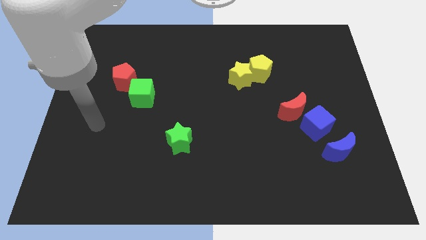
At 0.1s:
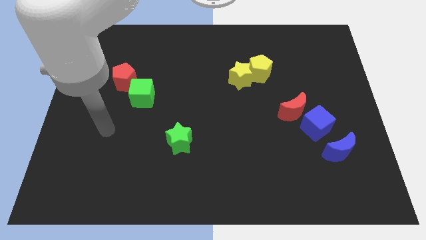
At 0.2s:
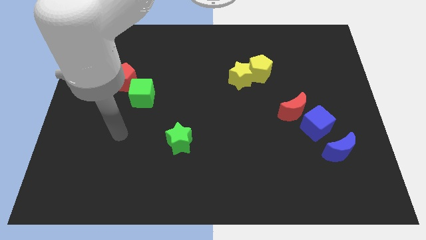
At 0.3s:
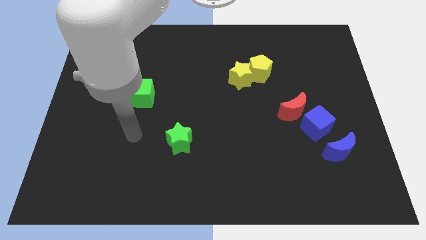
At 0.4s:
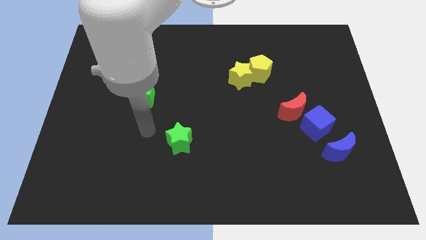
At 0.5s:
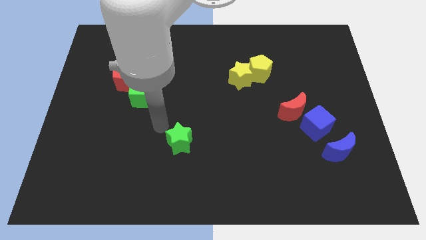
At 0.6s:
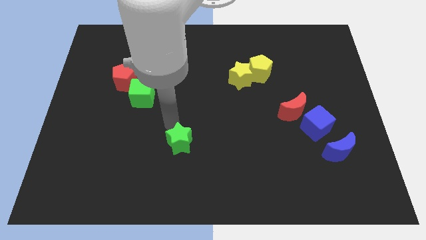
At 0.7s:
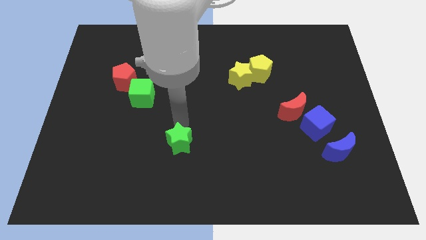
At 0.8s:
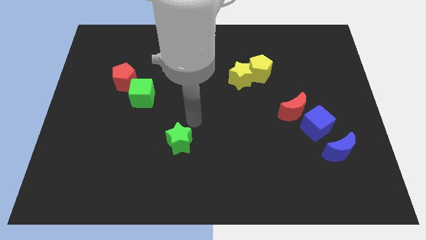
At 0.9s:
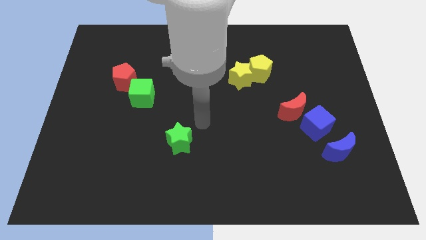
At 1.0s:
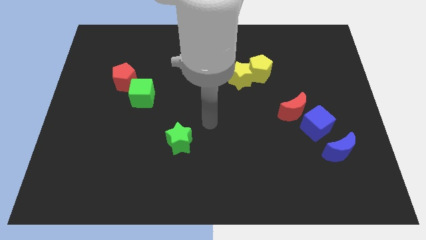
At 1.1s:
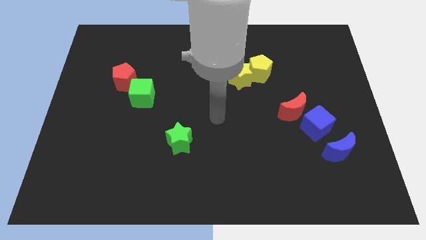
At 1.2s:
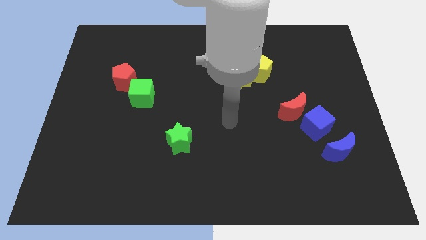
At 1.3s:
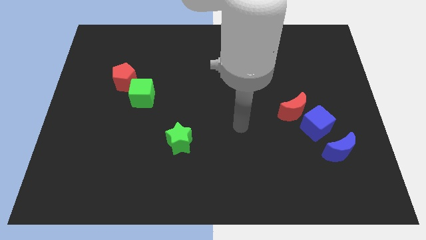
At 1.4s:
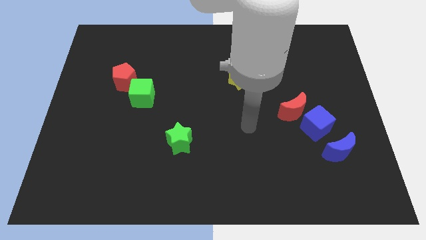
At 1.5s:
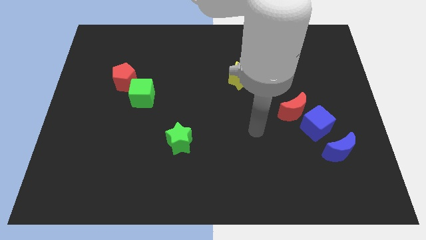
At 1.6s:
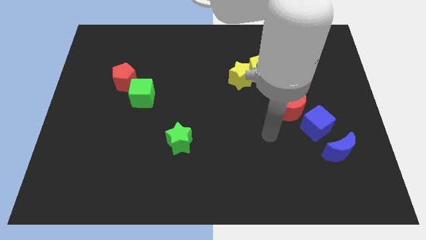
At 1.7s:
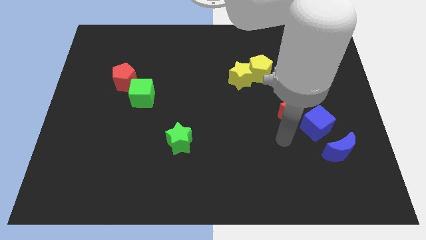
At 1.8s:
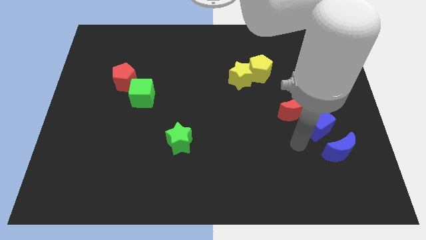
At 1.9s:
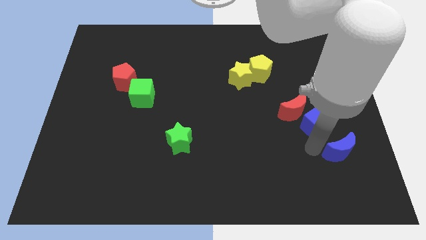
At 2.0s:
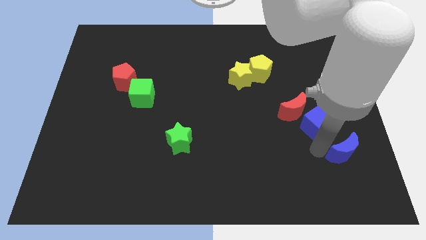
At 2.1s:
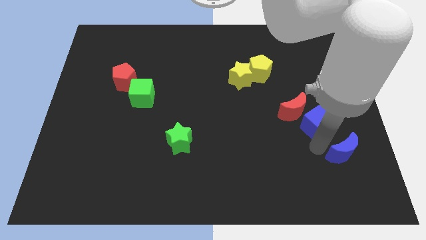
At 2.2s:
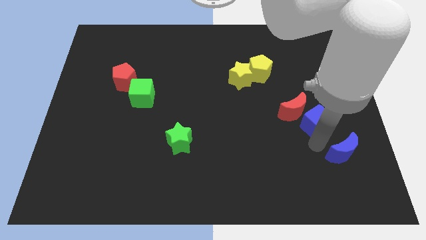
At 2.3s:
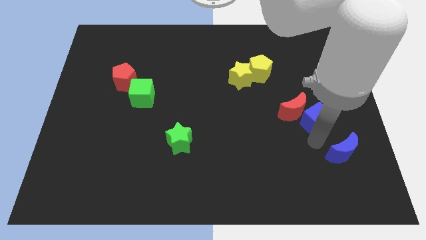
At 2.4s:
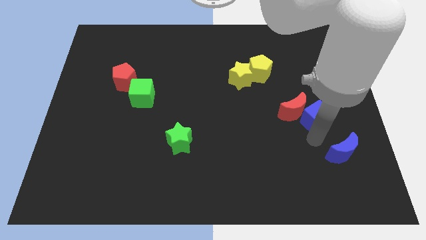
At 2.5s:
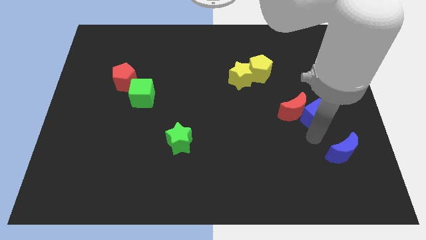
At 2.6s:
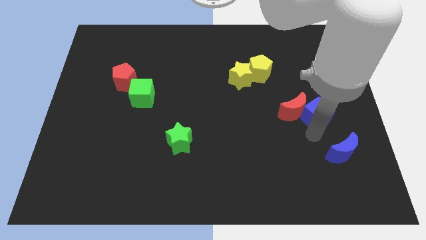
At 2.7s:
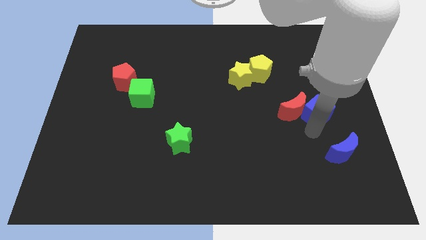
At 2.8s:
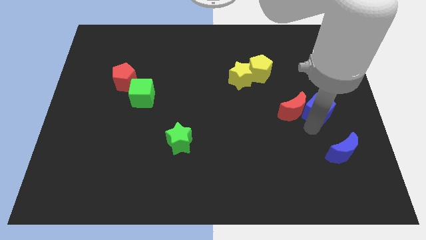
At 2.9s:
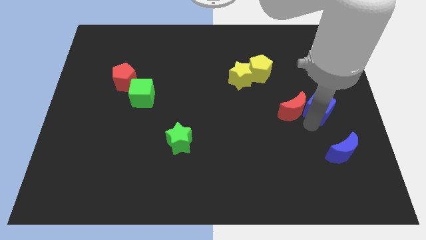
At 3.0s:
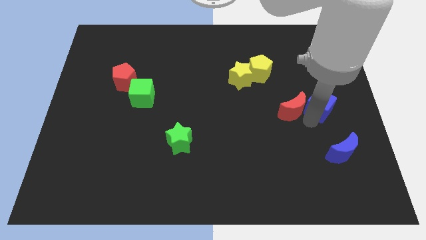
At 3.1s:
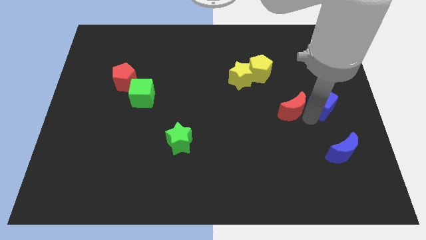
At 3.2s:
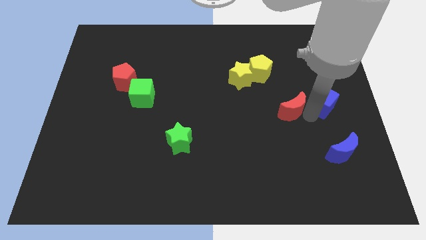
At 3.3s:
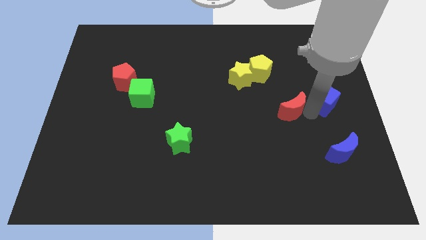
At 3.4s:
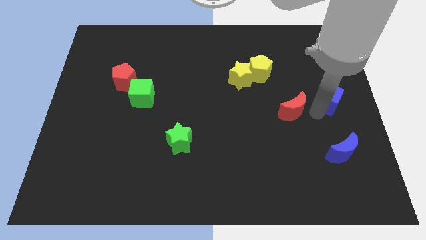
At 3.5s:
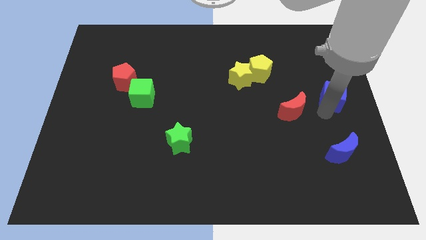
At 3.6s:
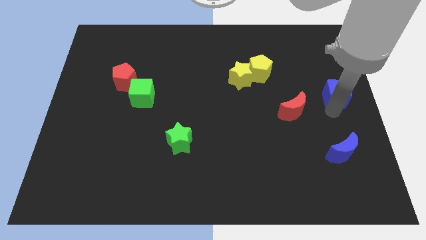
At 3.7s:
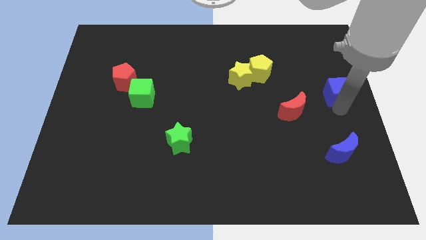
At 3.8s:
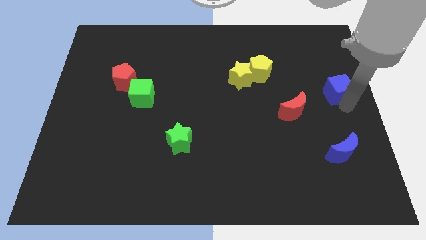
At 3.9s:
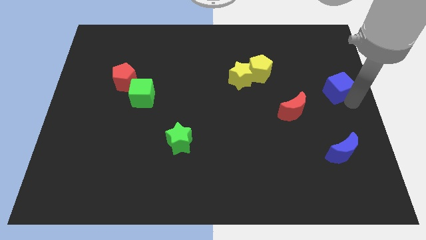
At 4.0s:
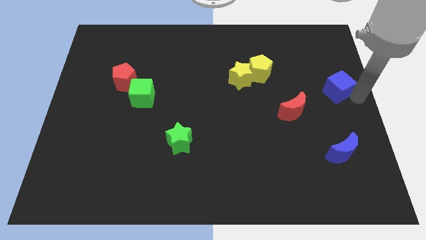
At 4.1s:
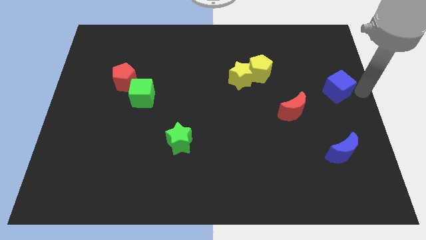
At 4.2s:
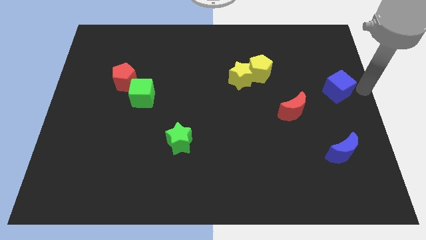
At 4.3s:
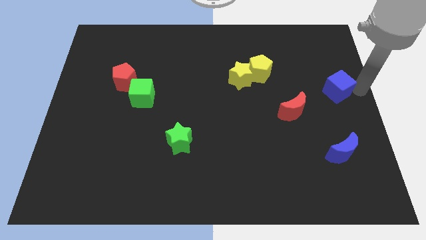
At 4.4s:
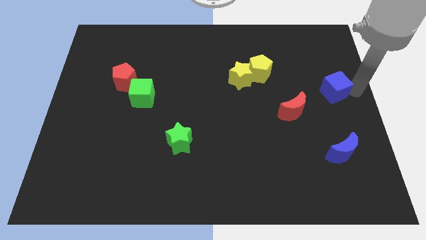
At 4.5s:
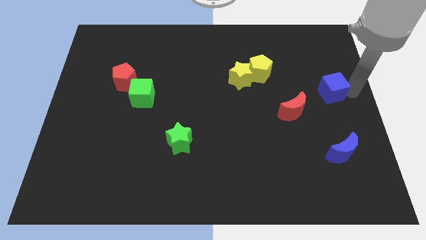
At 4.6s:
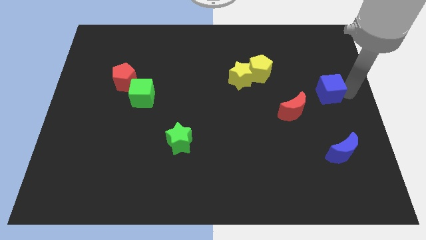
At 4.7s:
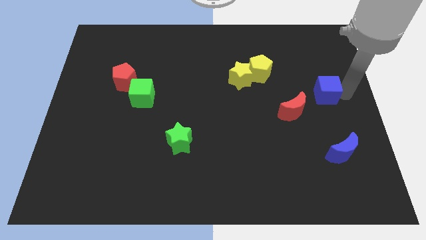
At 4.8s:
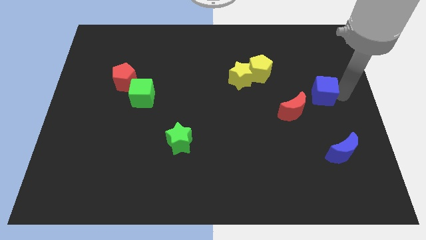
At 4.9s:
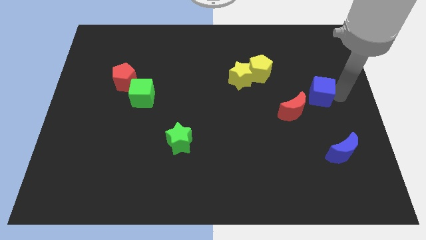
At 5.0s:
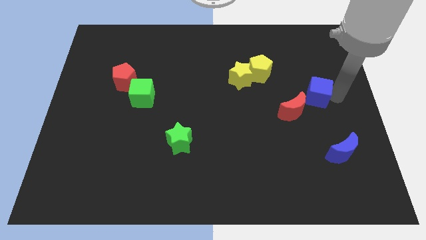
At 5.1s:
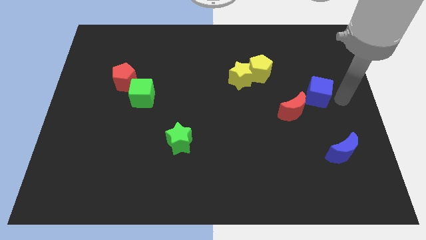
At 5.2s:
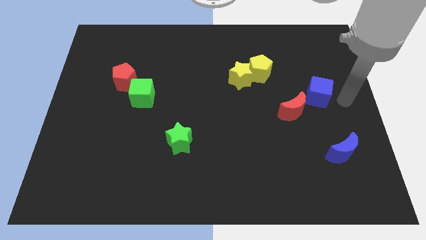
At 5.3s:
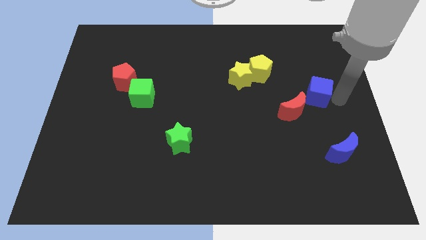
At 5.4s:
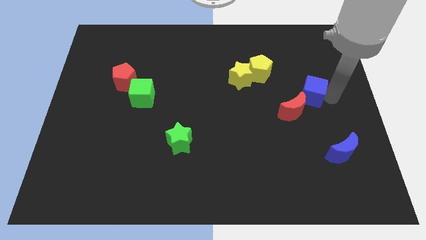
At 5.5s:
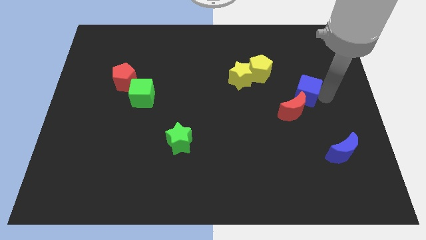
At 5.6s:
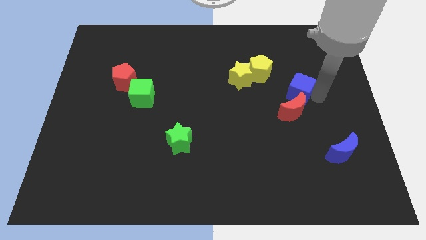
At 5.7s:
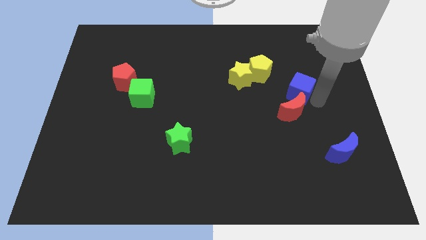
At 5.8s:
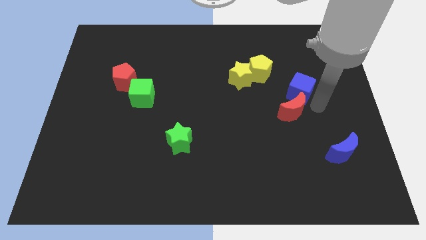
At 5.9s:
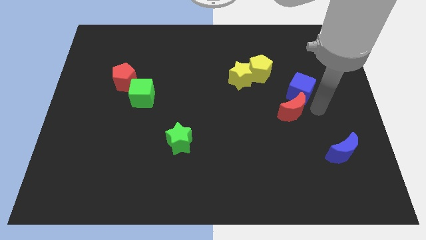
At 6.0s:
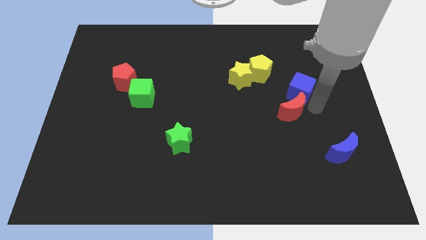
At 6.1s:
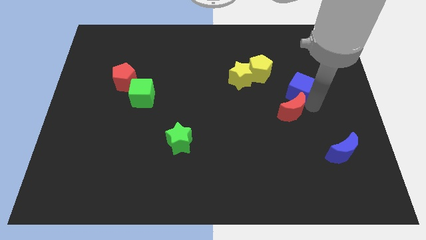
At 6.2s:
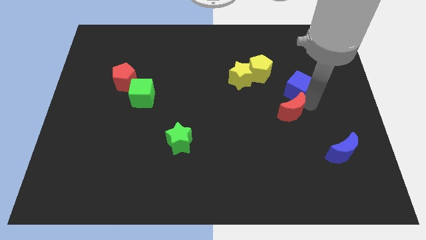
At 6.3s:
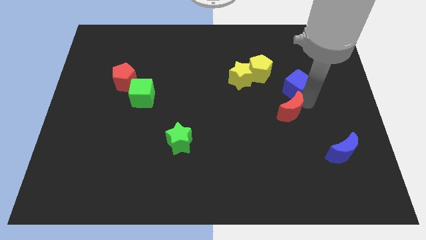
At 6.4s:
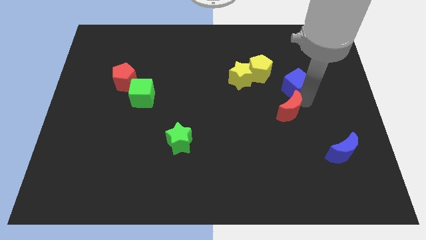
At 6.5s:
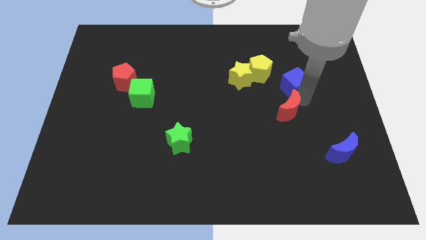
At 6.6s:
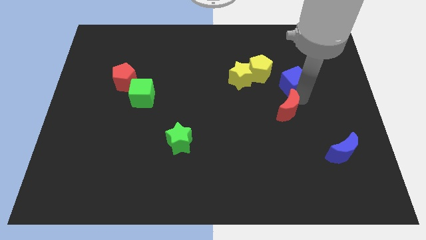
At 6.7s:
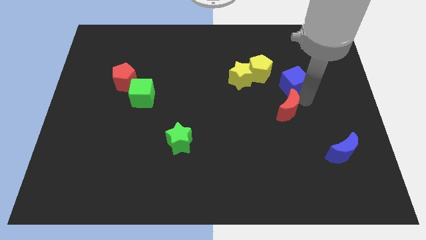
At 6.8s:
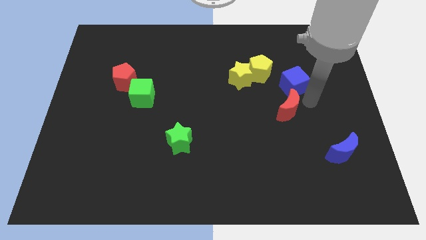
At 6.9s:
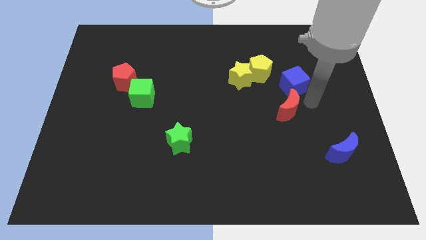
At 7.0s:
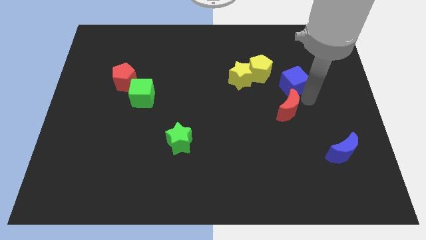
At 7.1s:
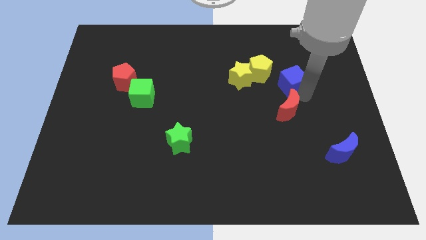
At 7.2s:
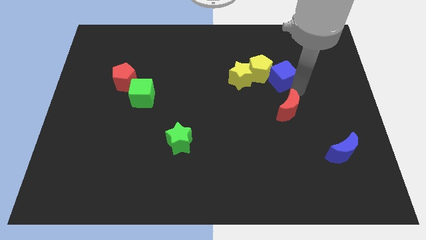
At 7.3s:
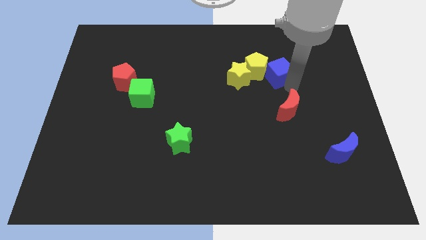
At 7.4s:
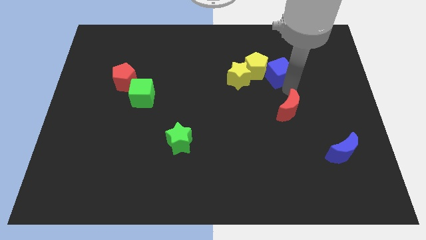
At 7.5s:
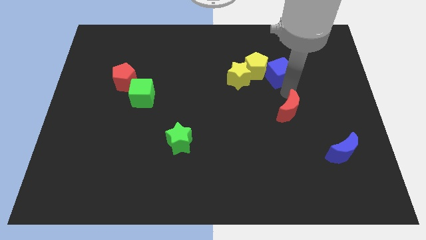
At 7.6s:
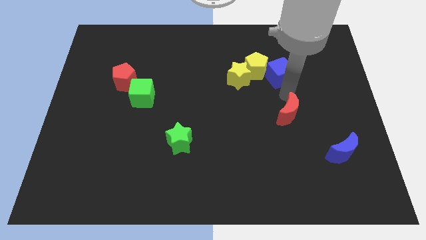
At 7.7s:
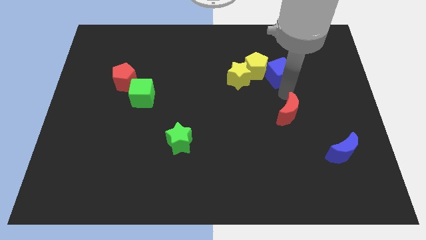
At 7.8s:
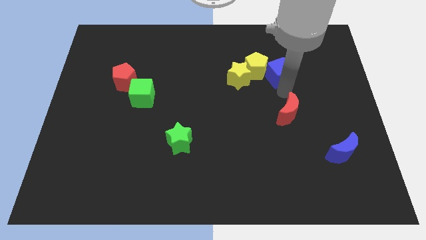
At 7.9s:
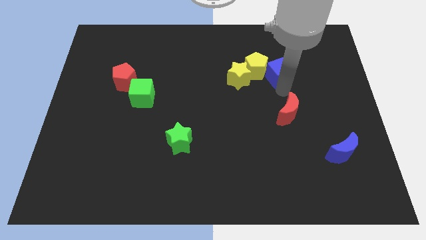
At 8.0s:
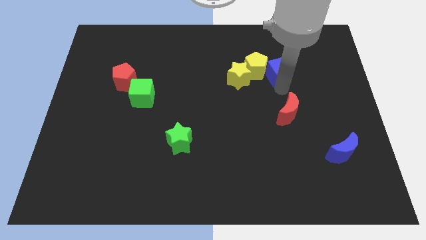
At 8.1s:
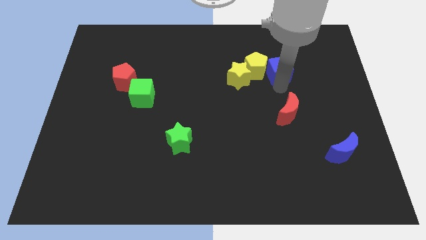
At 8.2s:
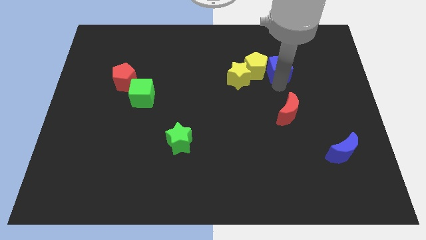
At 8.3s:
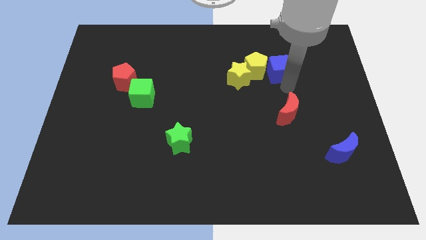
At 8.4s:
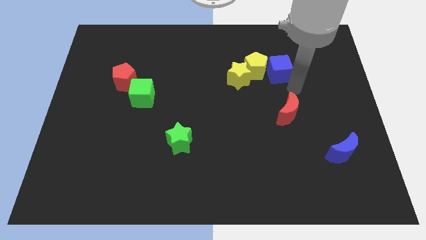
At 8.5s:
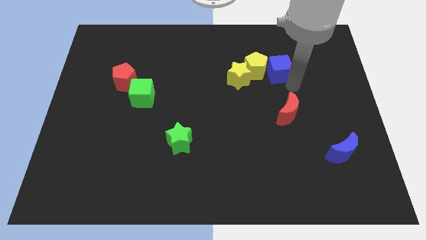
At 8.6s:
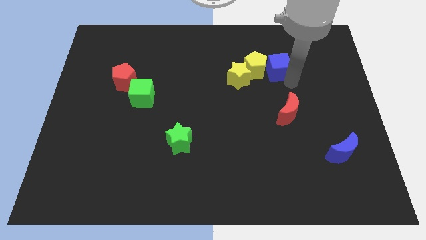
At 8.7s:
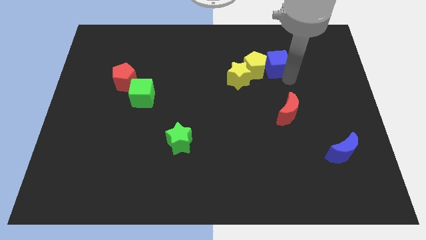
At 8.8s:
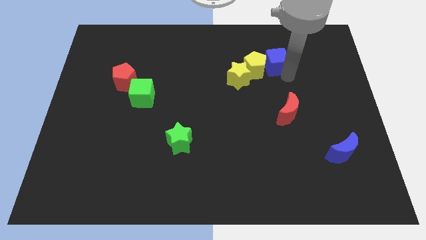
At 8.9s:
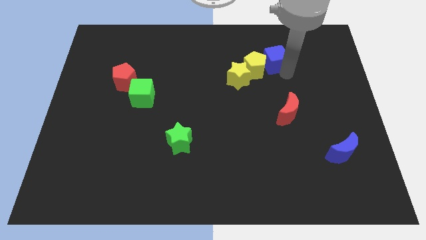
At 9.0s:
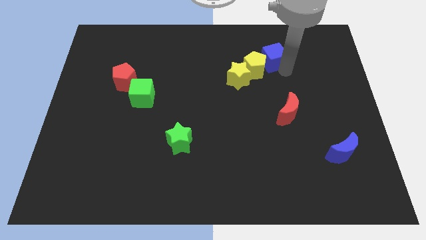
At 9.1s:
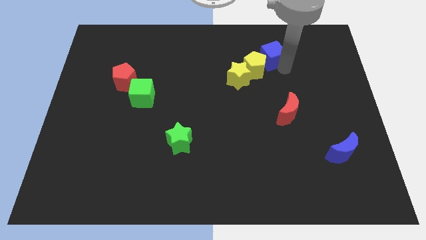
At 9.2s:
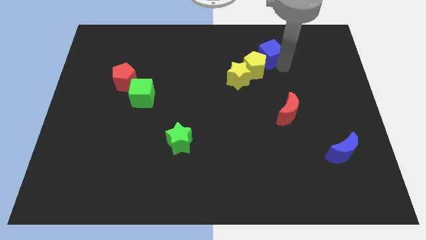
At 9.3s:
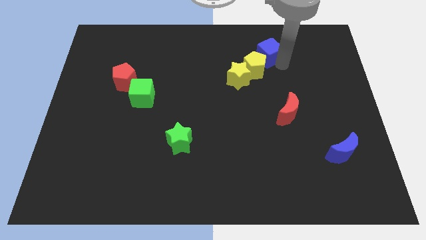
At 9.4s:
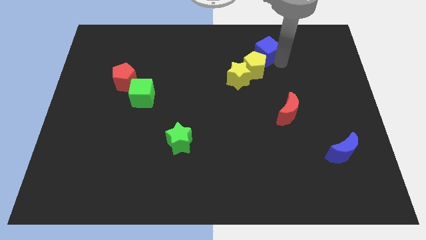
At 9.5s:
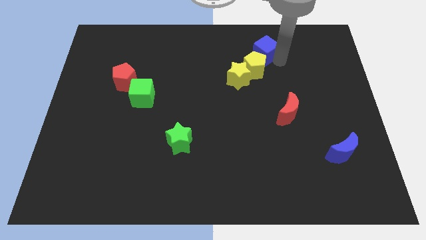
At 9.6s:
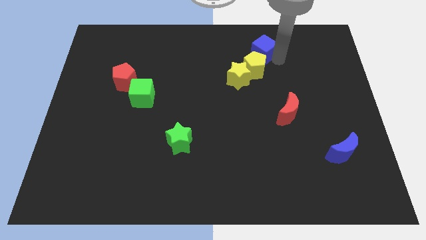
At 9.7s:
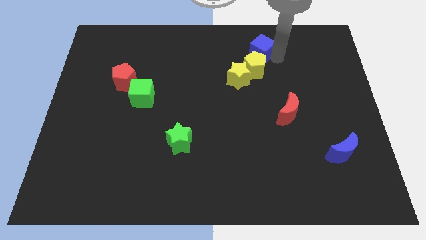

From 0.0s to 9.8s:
push the blue cube upwards and left
